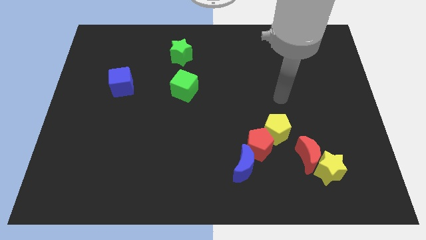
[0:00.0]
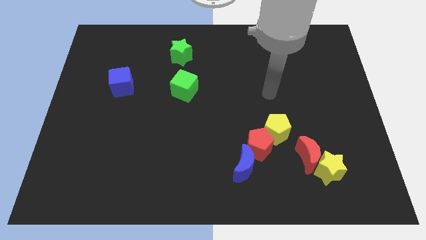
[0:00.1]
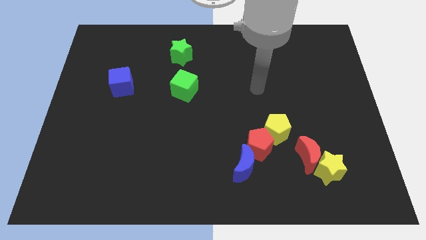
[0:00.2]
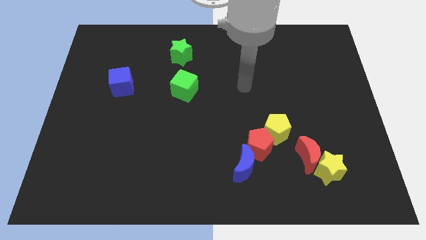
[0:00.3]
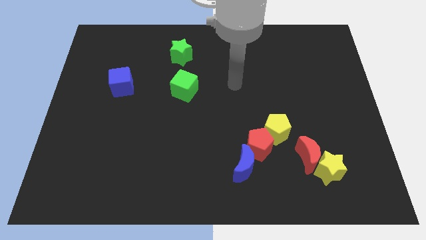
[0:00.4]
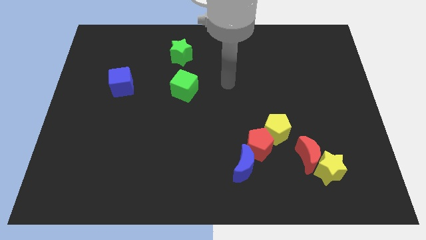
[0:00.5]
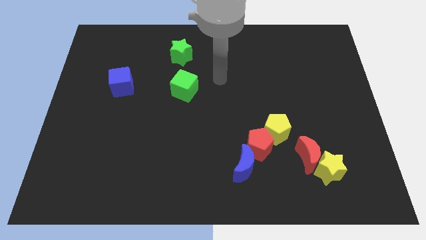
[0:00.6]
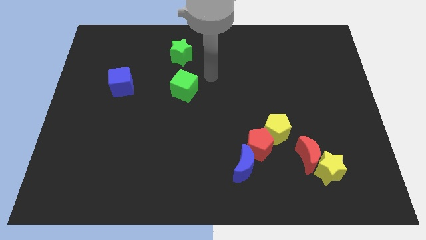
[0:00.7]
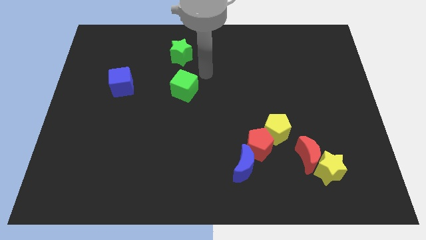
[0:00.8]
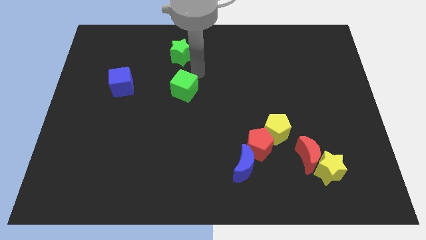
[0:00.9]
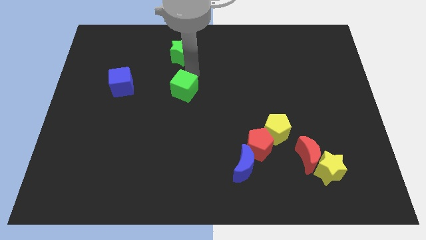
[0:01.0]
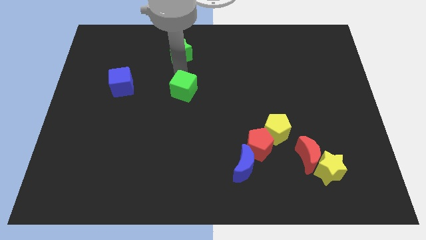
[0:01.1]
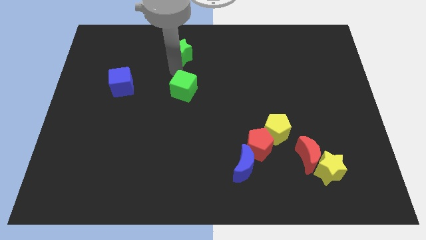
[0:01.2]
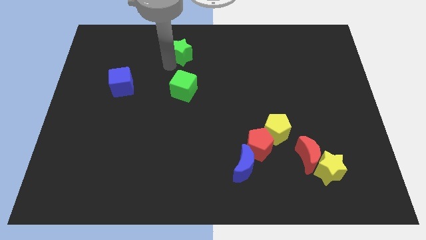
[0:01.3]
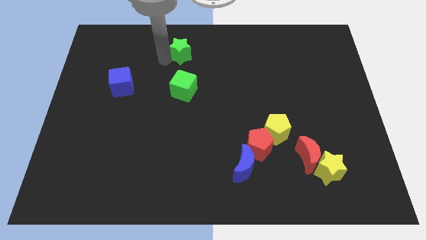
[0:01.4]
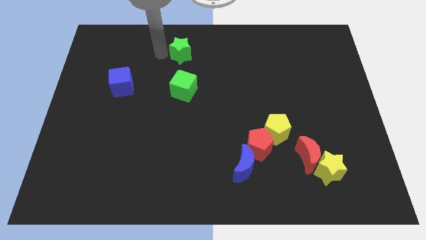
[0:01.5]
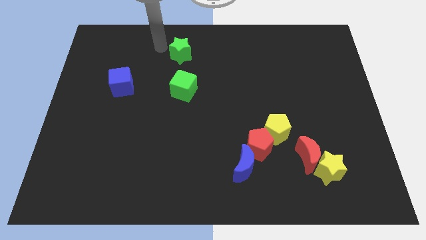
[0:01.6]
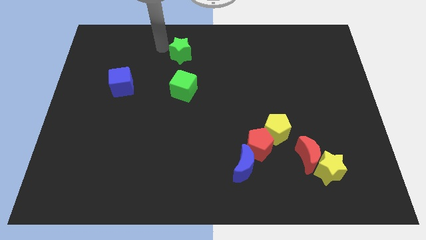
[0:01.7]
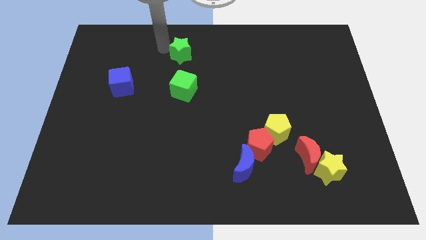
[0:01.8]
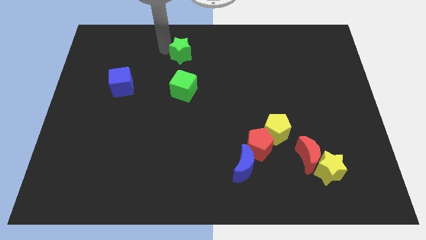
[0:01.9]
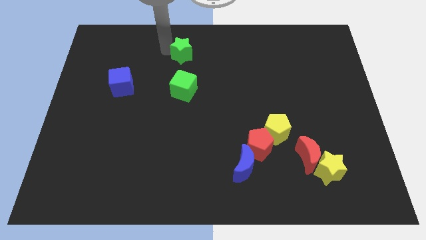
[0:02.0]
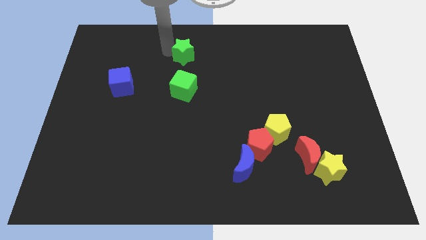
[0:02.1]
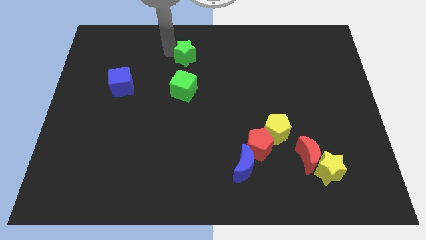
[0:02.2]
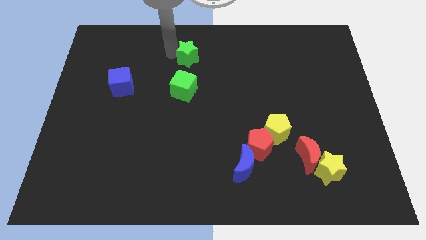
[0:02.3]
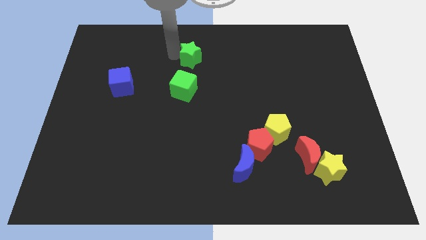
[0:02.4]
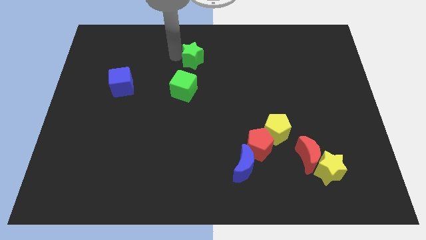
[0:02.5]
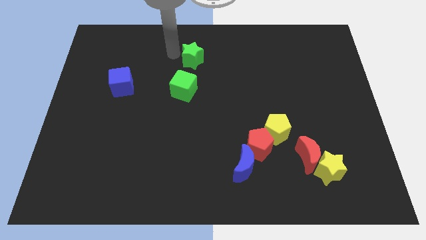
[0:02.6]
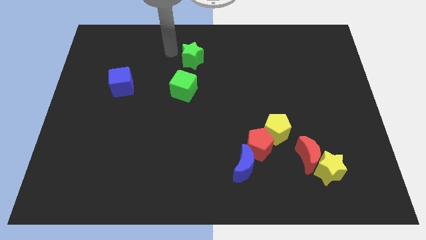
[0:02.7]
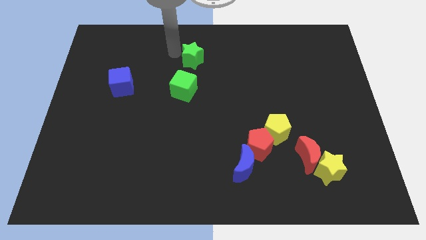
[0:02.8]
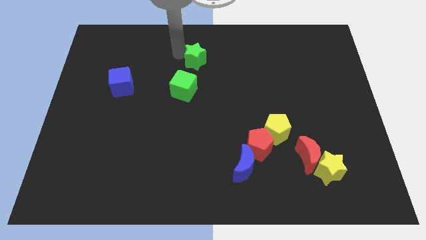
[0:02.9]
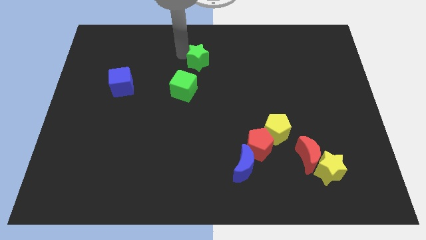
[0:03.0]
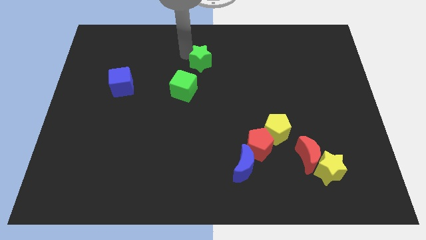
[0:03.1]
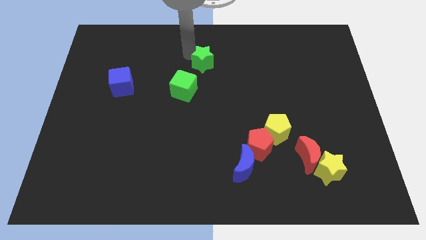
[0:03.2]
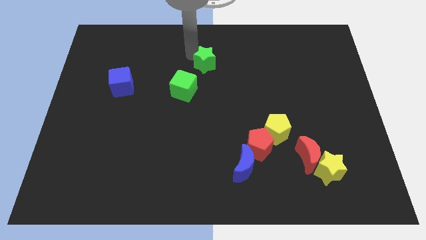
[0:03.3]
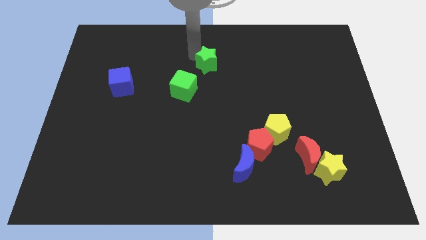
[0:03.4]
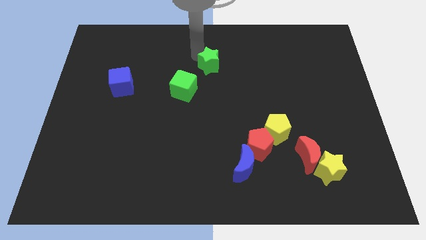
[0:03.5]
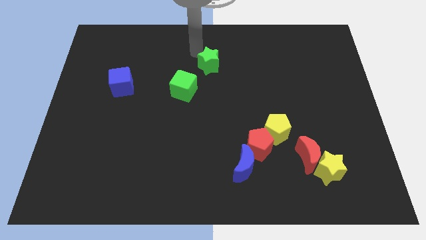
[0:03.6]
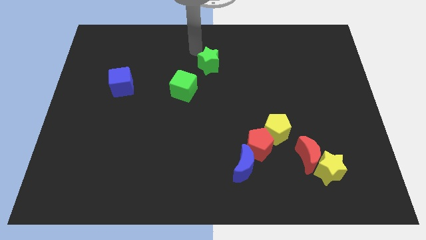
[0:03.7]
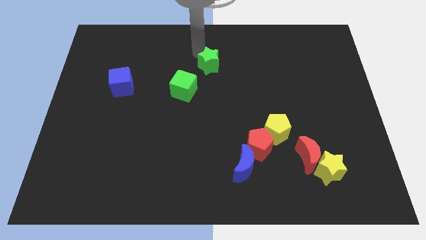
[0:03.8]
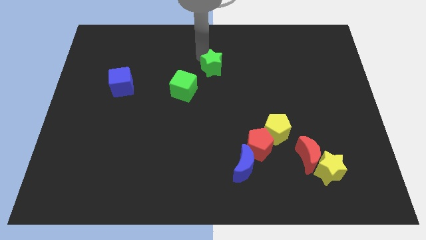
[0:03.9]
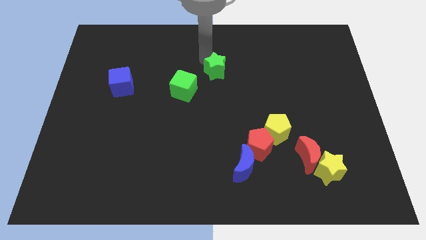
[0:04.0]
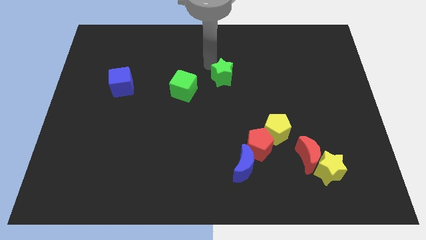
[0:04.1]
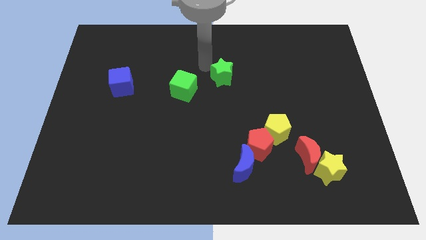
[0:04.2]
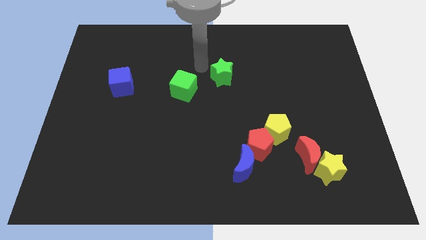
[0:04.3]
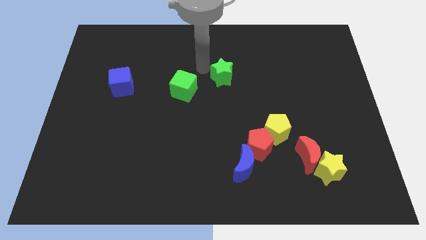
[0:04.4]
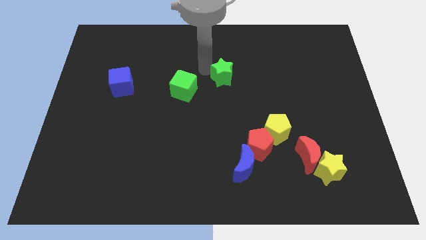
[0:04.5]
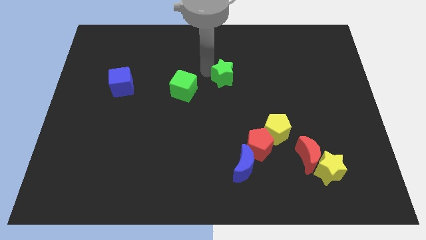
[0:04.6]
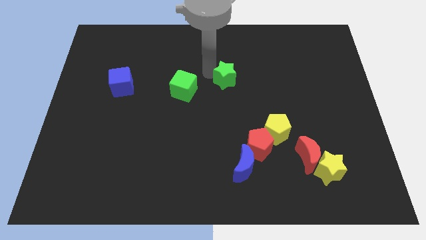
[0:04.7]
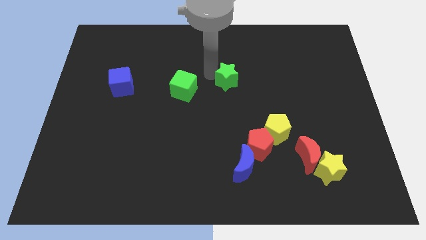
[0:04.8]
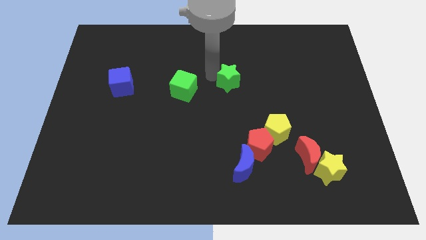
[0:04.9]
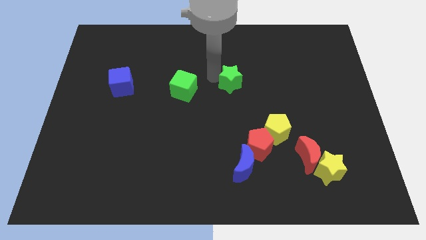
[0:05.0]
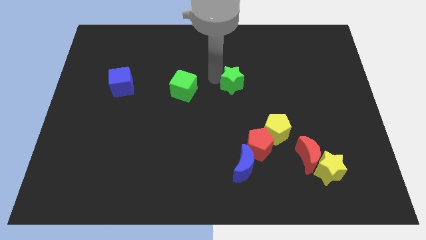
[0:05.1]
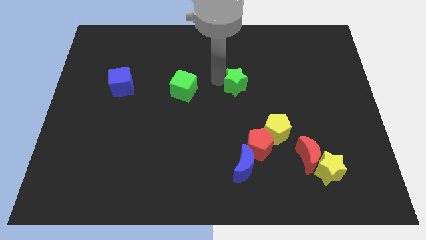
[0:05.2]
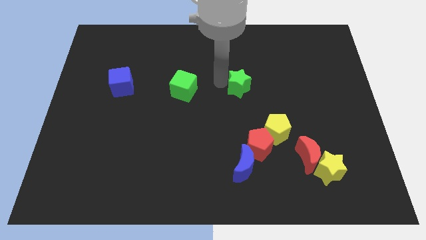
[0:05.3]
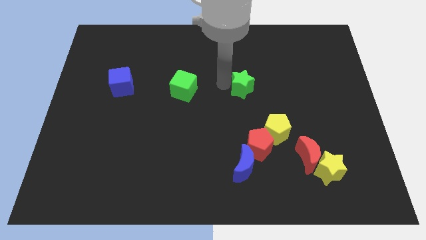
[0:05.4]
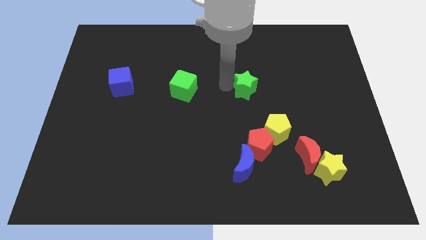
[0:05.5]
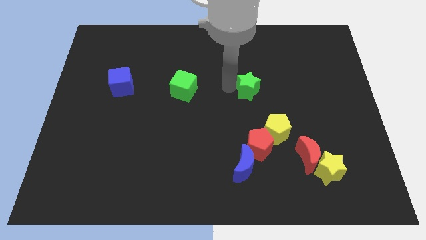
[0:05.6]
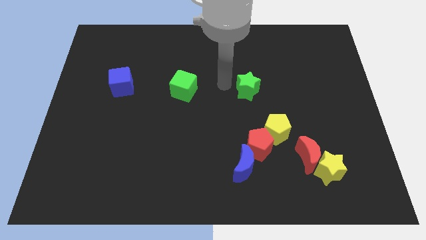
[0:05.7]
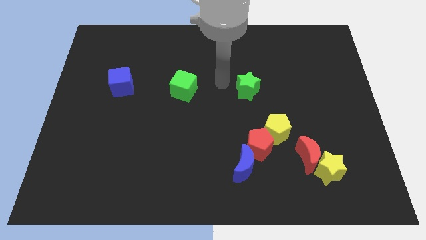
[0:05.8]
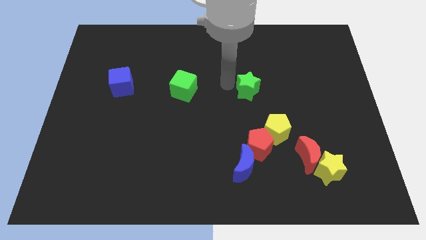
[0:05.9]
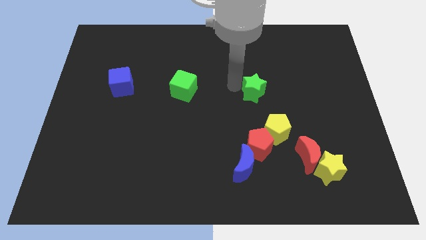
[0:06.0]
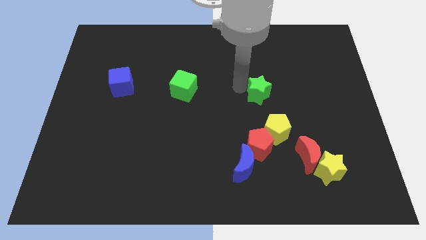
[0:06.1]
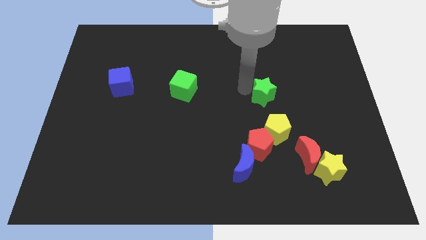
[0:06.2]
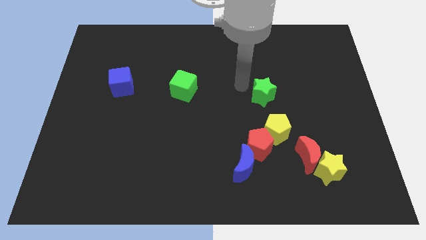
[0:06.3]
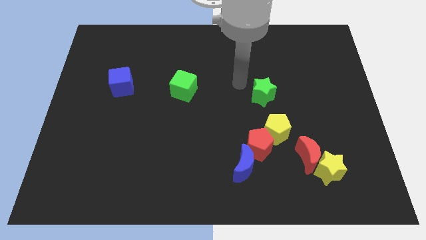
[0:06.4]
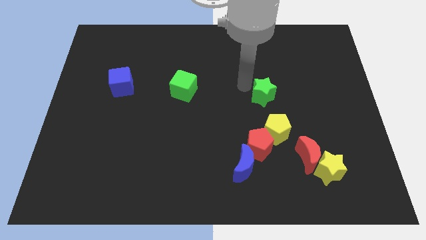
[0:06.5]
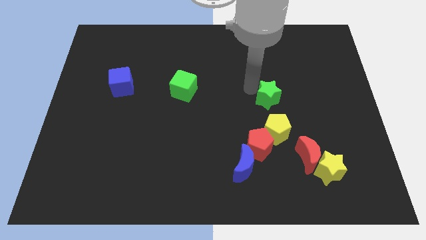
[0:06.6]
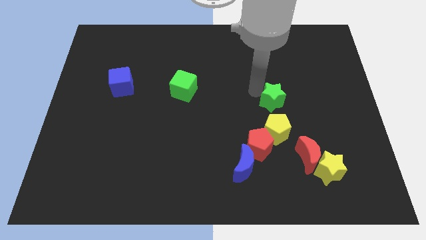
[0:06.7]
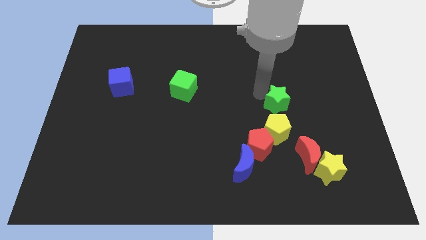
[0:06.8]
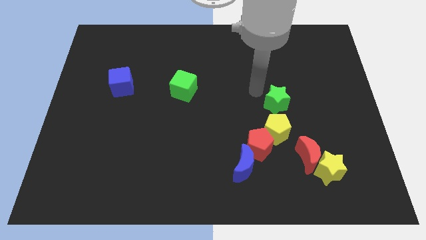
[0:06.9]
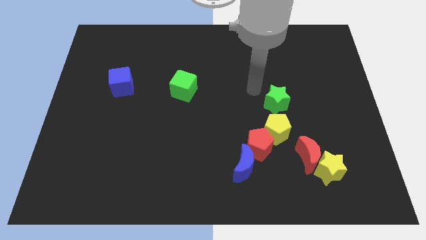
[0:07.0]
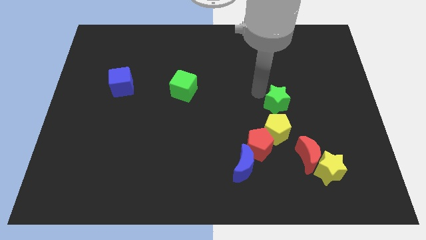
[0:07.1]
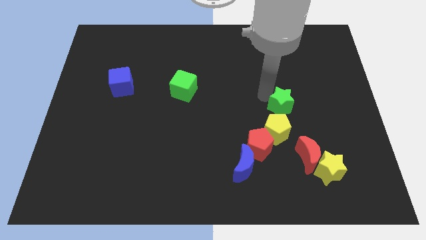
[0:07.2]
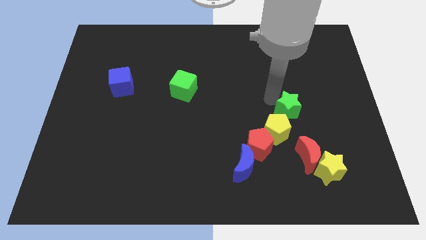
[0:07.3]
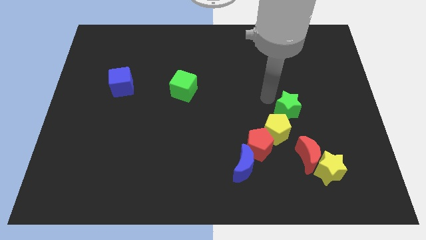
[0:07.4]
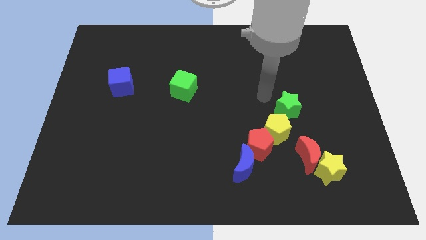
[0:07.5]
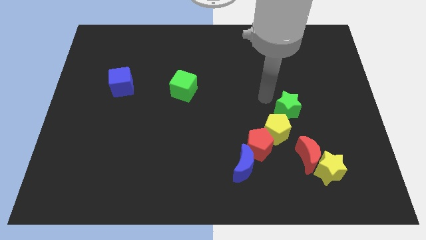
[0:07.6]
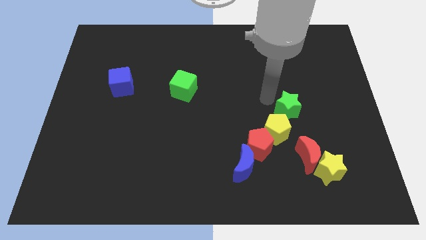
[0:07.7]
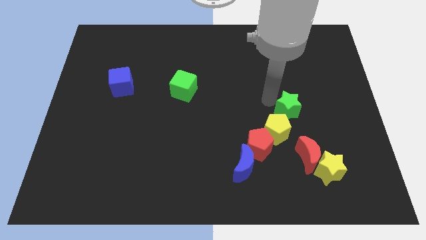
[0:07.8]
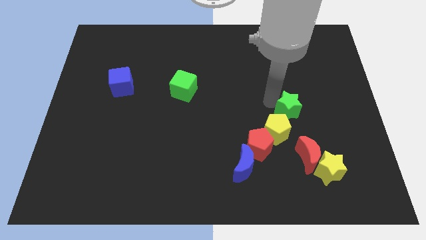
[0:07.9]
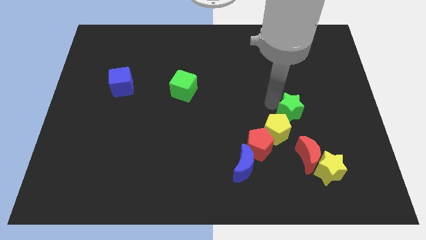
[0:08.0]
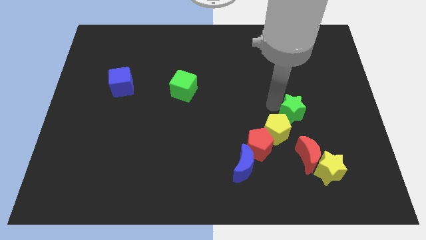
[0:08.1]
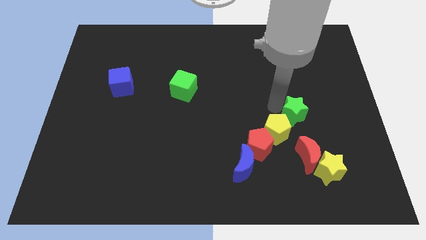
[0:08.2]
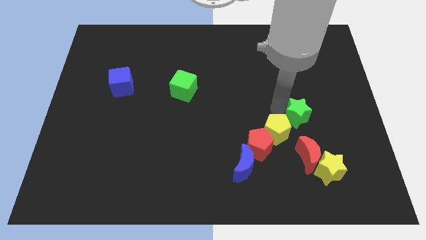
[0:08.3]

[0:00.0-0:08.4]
push the green star to the right of the yellow pentagon
